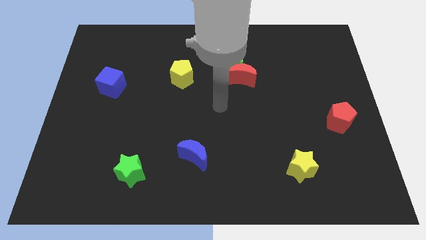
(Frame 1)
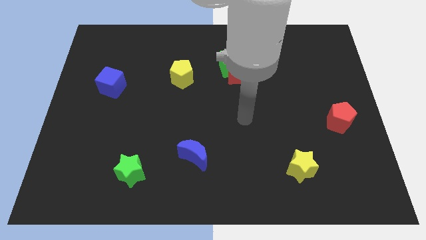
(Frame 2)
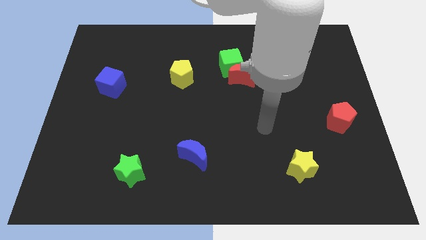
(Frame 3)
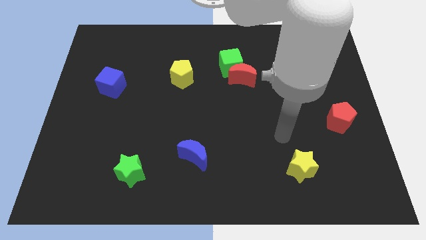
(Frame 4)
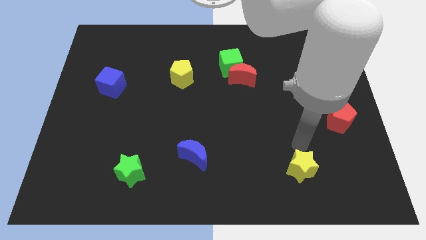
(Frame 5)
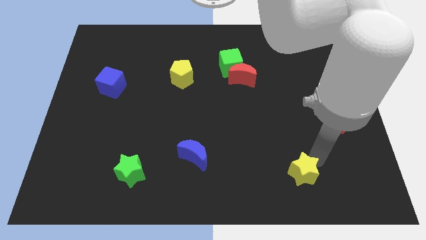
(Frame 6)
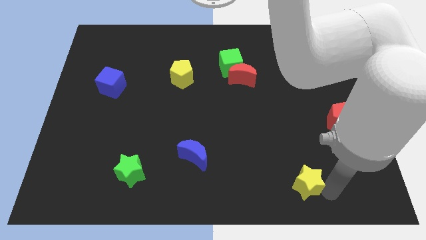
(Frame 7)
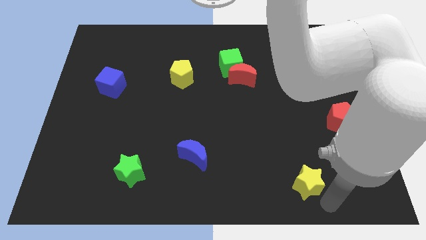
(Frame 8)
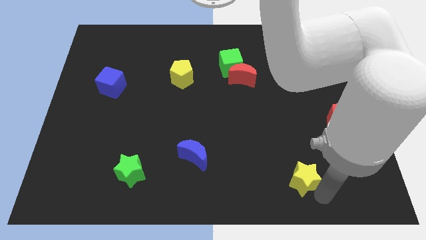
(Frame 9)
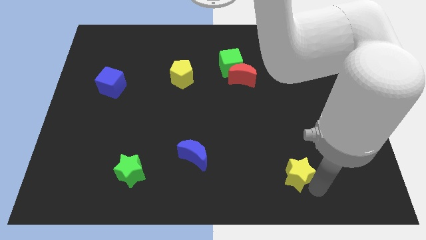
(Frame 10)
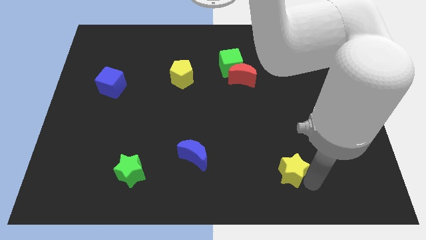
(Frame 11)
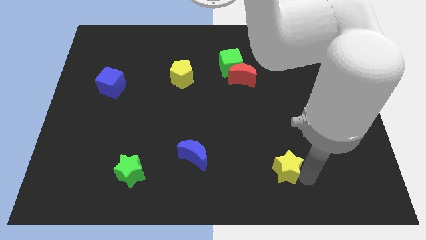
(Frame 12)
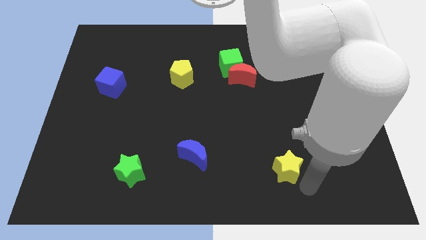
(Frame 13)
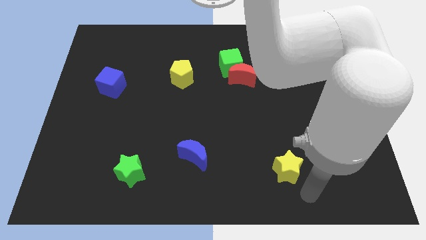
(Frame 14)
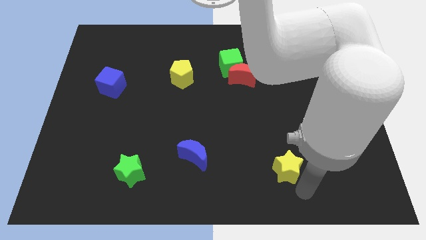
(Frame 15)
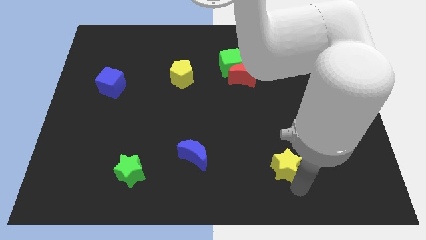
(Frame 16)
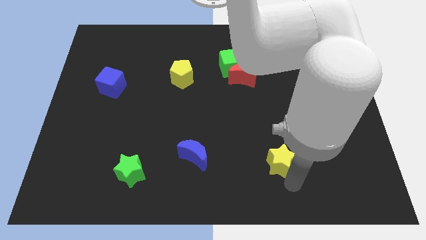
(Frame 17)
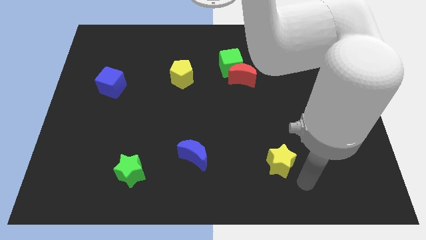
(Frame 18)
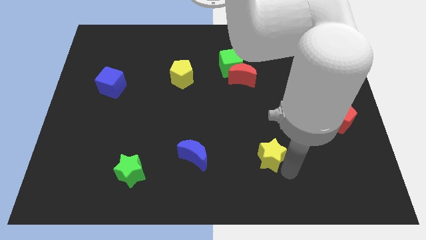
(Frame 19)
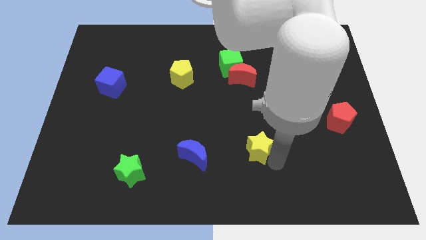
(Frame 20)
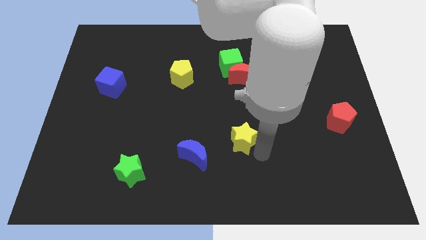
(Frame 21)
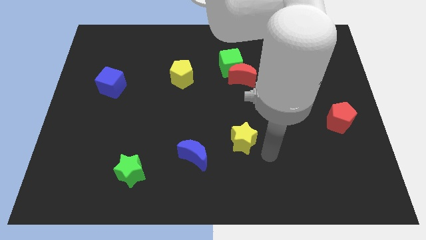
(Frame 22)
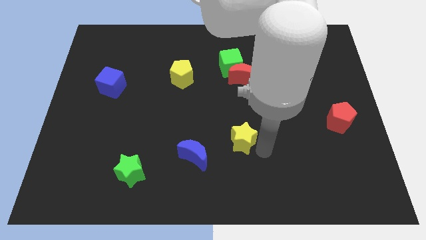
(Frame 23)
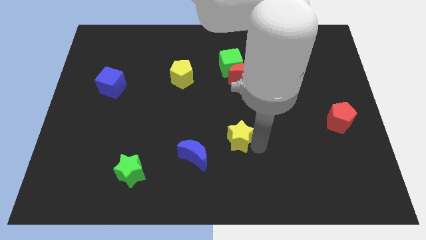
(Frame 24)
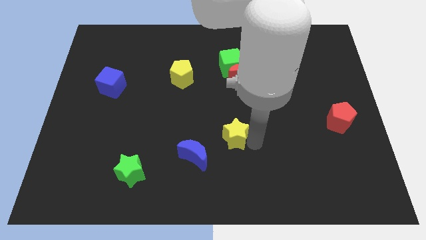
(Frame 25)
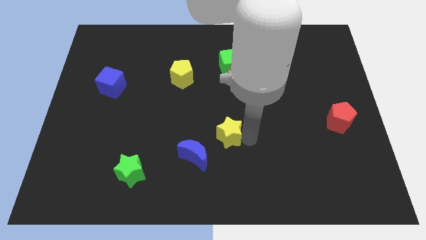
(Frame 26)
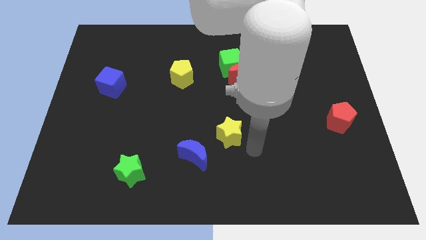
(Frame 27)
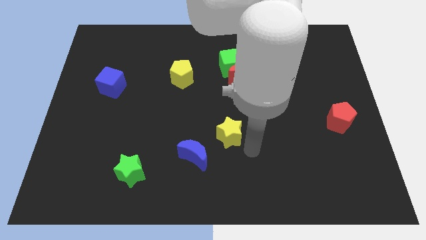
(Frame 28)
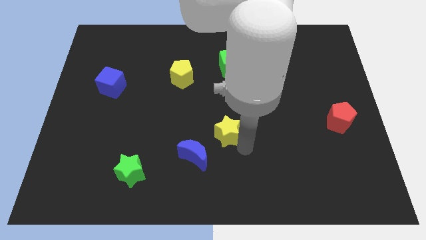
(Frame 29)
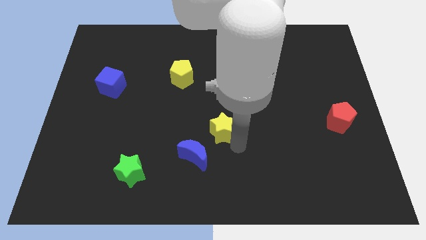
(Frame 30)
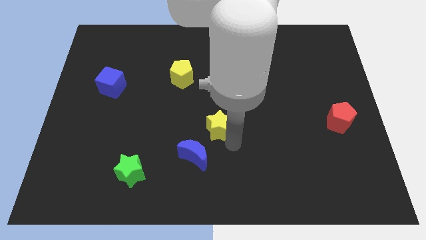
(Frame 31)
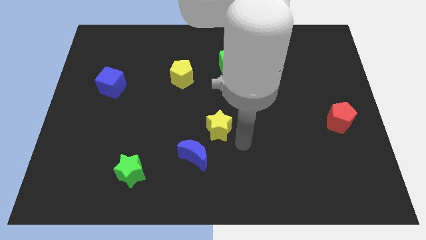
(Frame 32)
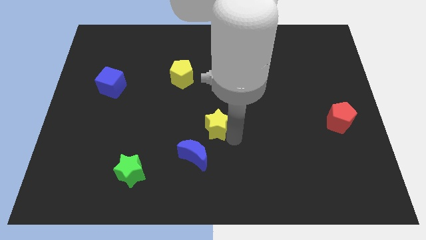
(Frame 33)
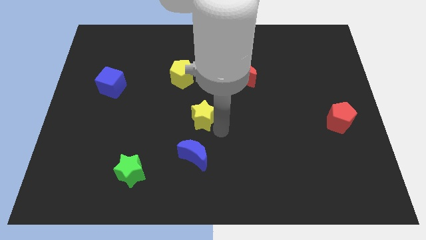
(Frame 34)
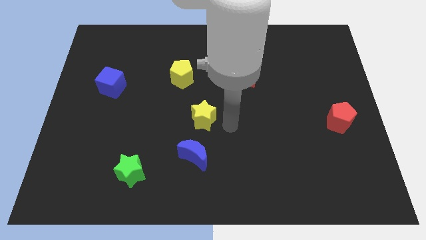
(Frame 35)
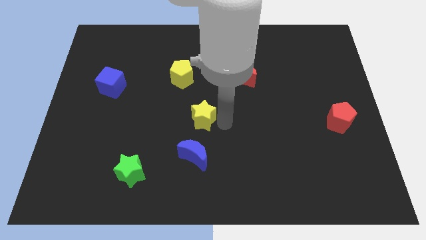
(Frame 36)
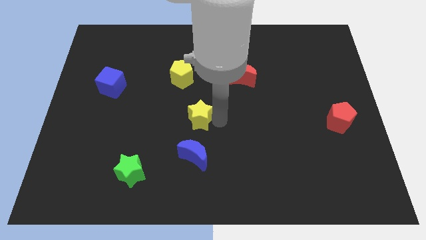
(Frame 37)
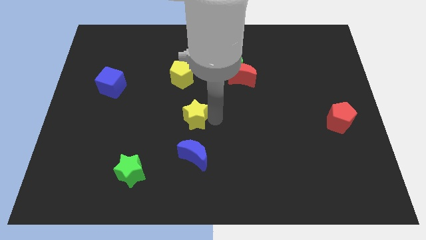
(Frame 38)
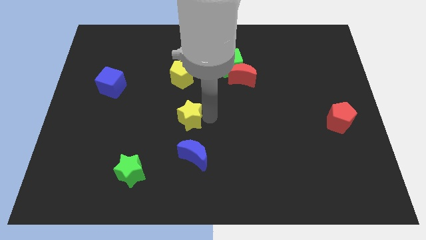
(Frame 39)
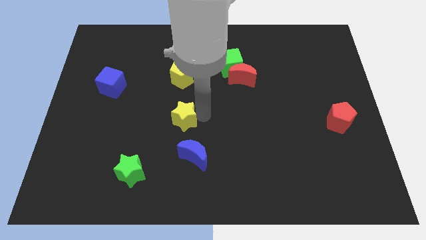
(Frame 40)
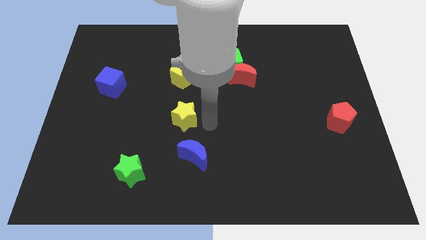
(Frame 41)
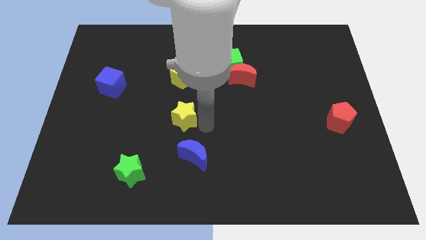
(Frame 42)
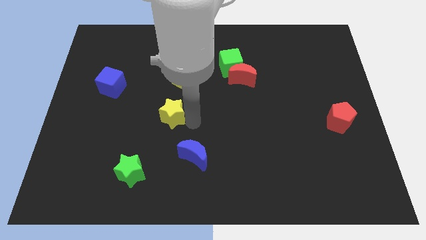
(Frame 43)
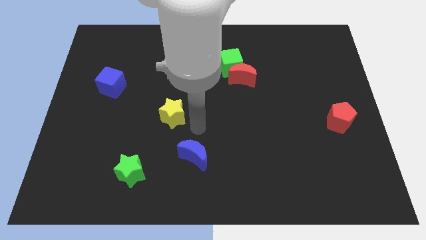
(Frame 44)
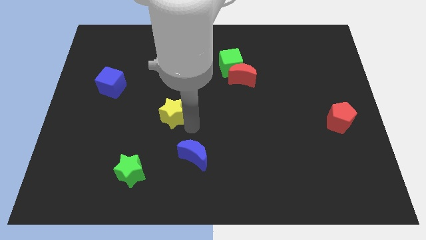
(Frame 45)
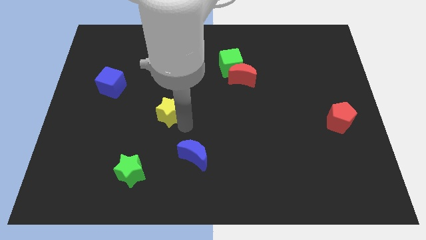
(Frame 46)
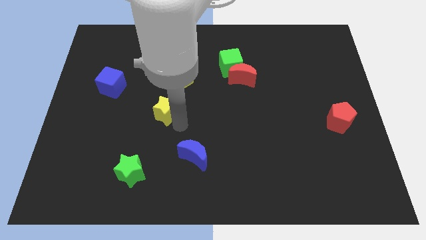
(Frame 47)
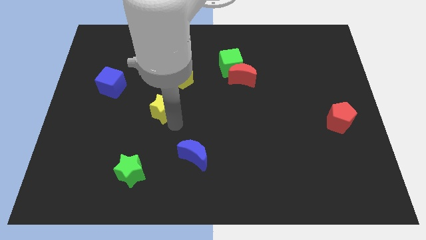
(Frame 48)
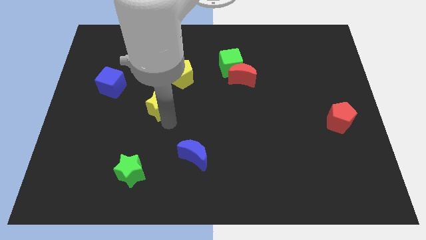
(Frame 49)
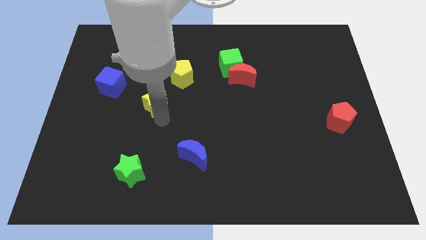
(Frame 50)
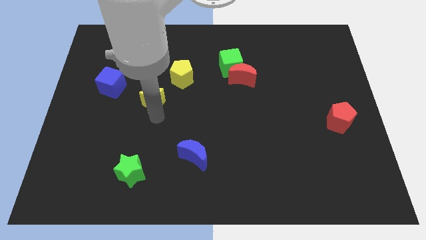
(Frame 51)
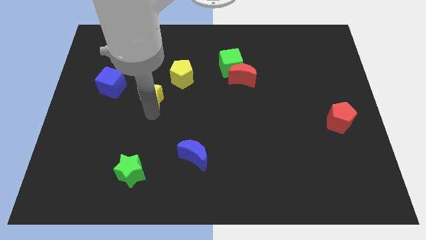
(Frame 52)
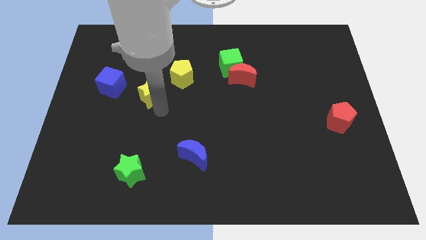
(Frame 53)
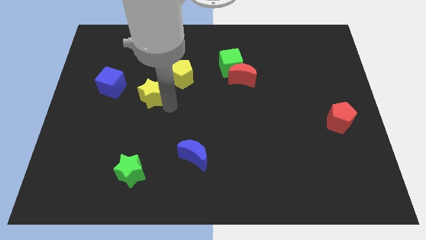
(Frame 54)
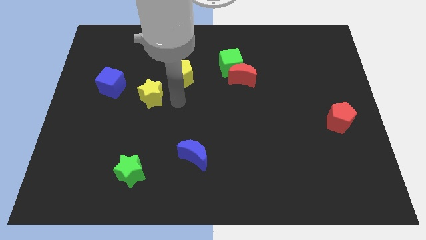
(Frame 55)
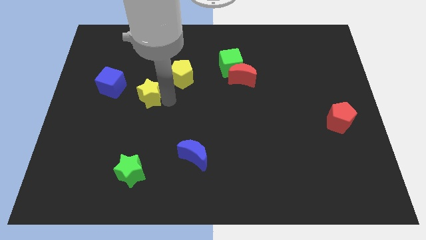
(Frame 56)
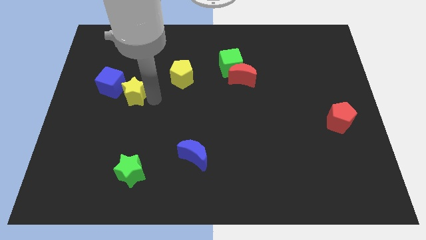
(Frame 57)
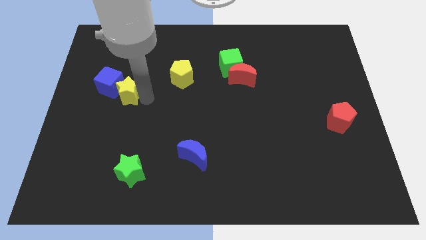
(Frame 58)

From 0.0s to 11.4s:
slide the yellow star next to the blue cube

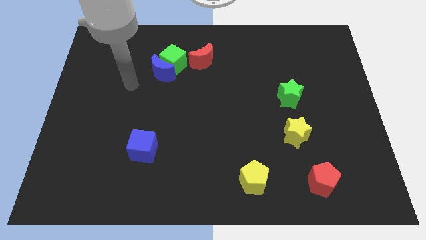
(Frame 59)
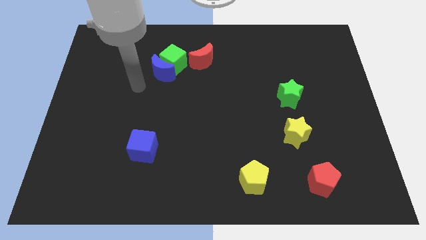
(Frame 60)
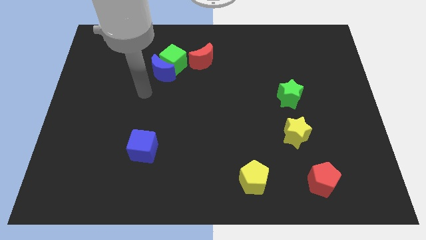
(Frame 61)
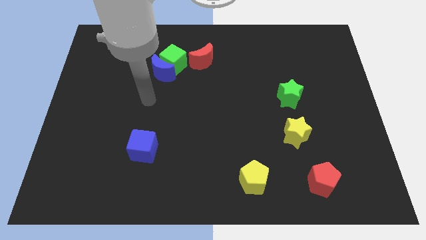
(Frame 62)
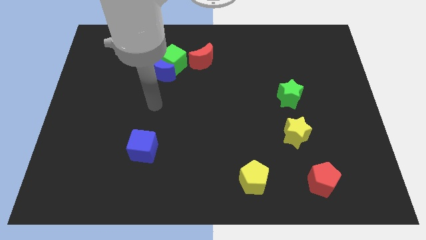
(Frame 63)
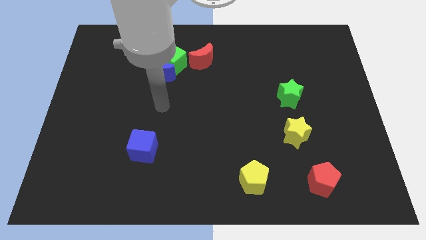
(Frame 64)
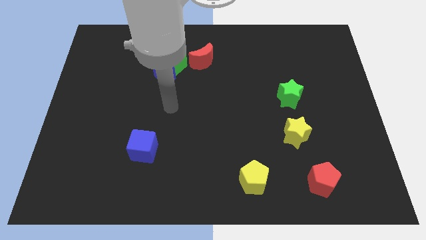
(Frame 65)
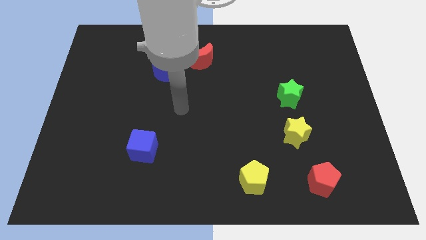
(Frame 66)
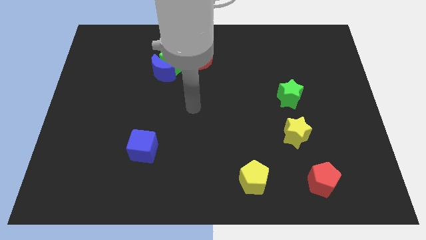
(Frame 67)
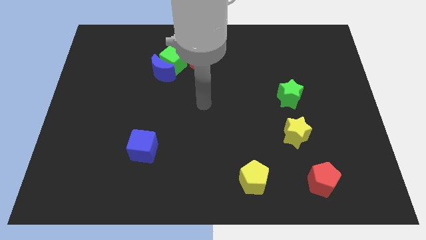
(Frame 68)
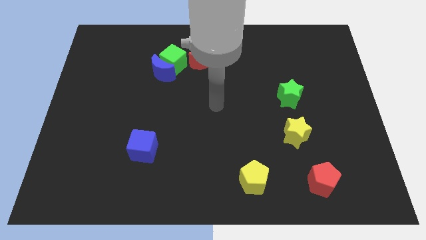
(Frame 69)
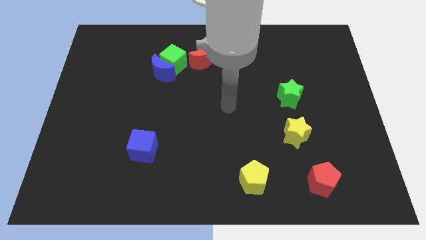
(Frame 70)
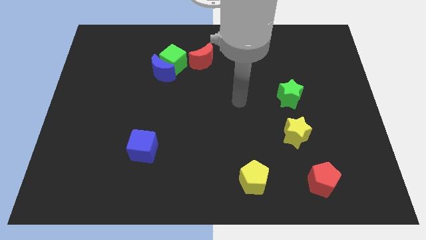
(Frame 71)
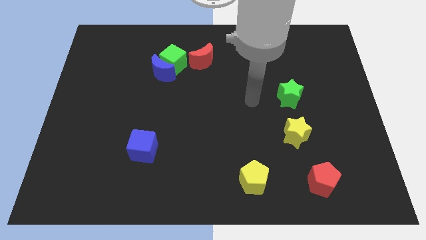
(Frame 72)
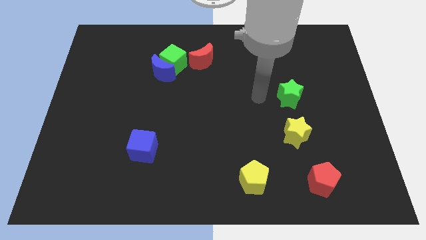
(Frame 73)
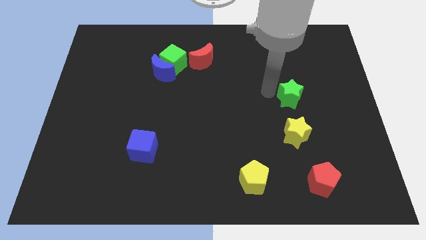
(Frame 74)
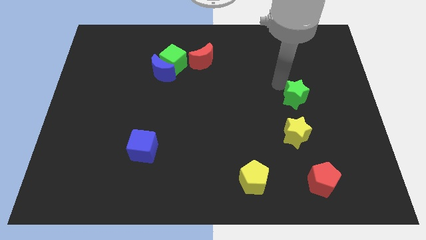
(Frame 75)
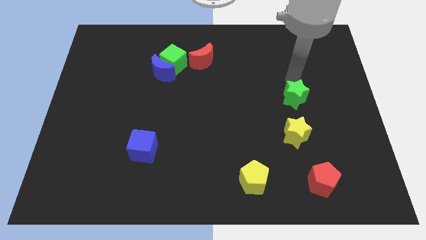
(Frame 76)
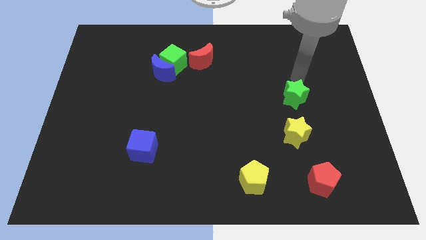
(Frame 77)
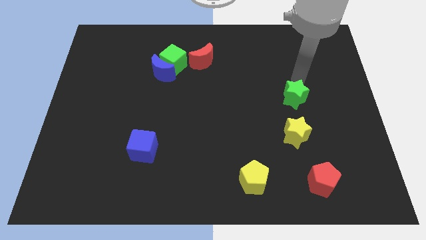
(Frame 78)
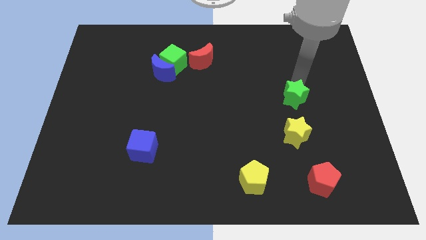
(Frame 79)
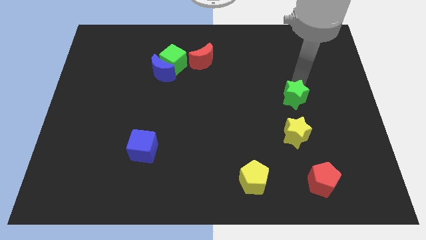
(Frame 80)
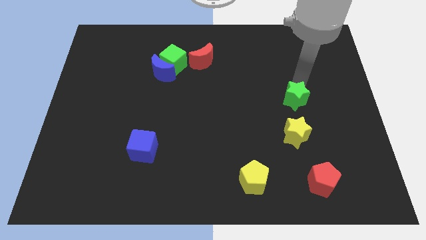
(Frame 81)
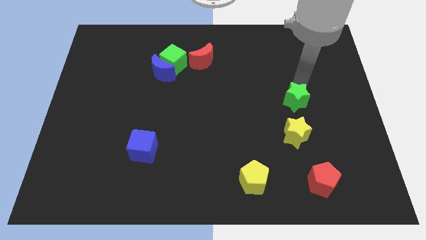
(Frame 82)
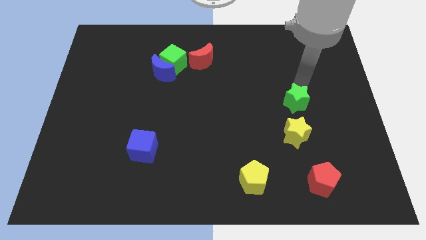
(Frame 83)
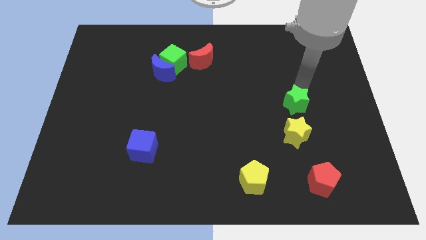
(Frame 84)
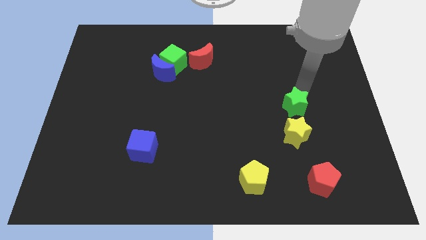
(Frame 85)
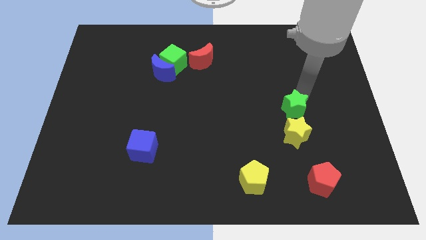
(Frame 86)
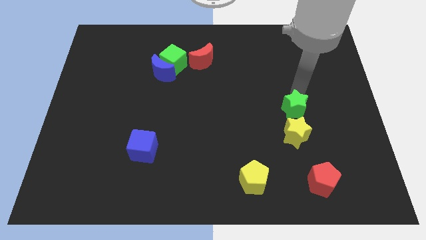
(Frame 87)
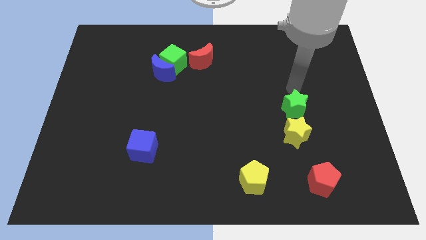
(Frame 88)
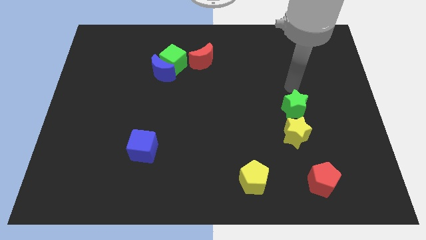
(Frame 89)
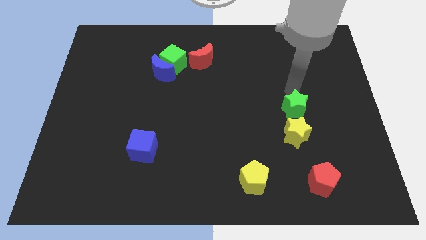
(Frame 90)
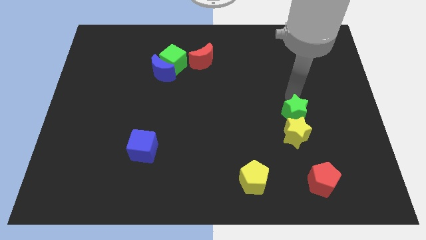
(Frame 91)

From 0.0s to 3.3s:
move the green star close to the yellow star
